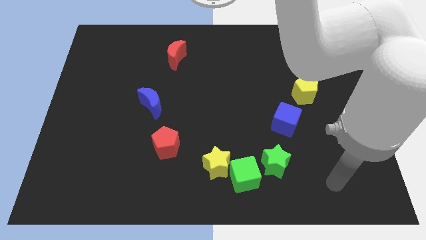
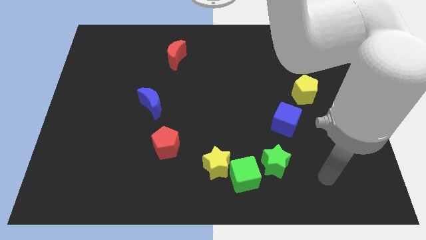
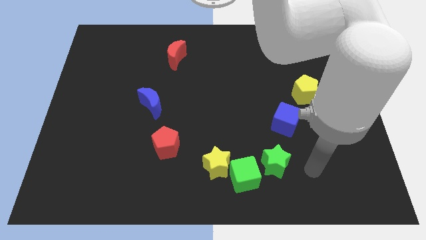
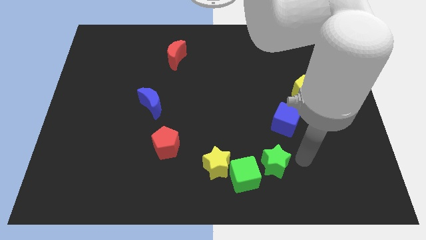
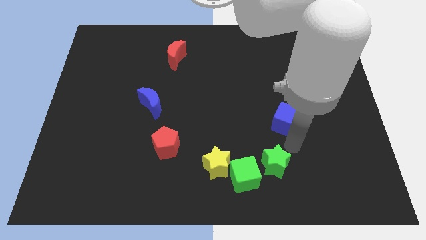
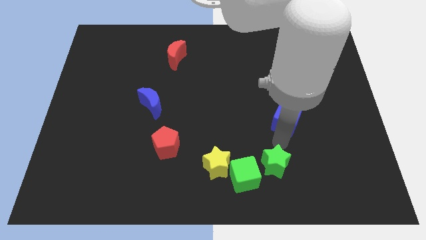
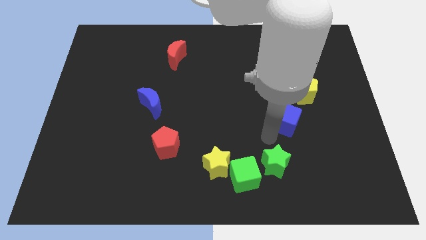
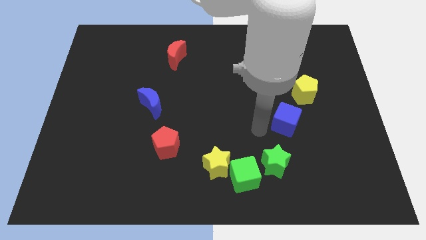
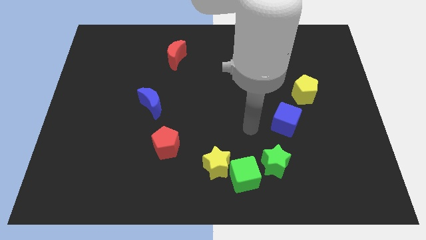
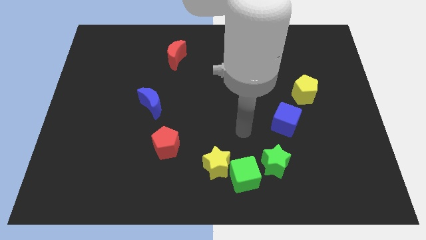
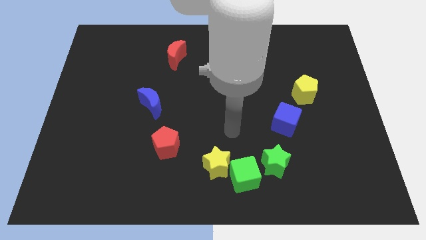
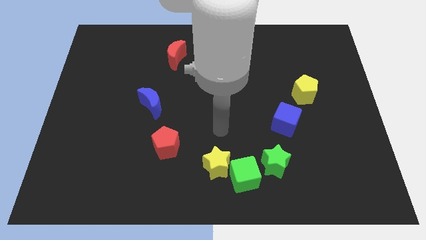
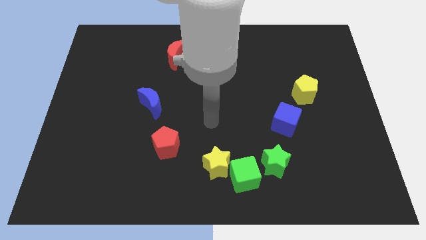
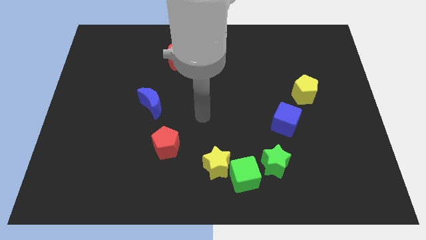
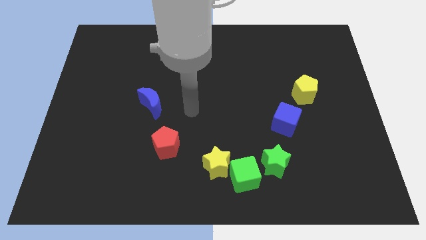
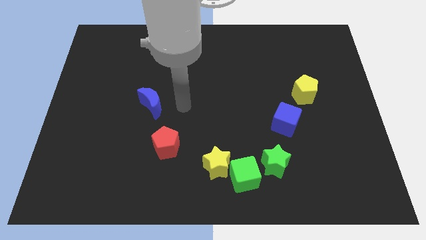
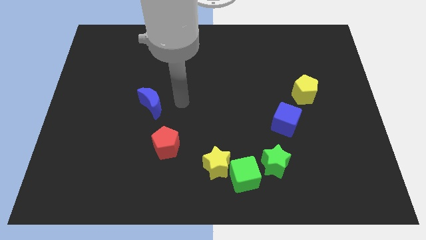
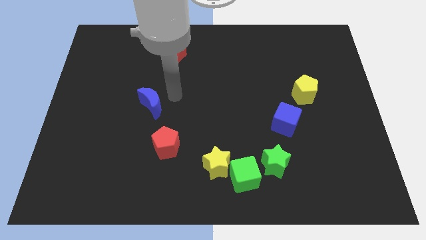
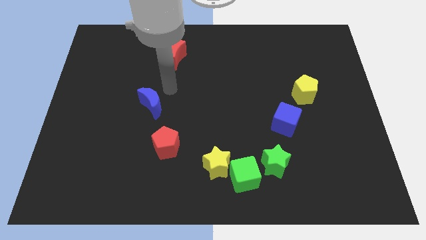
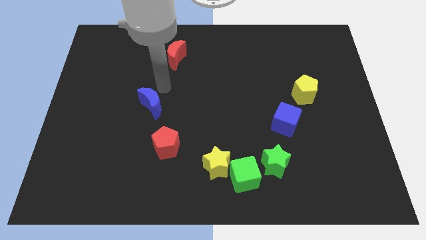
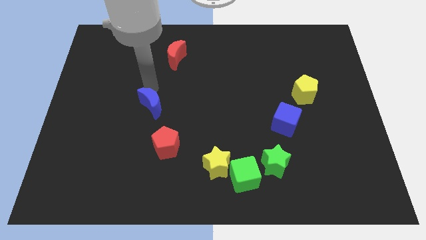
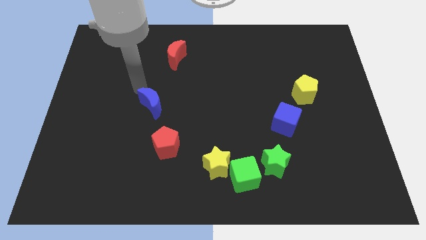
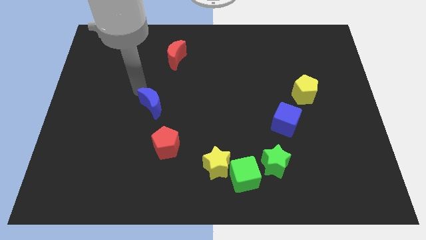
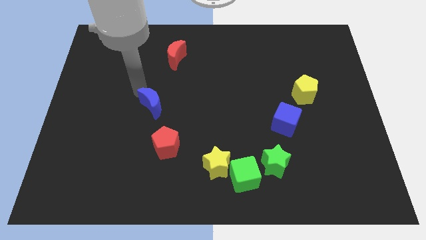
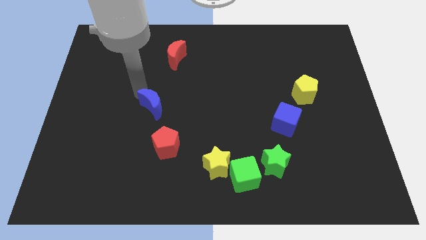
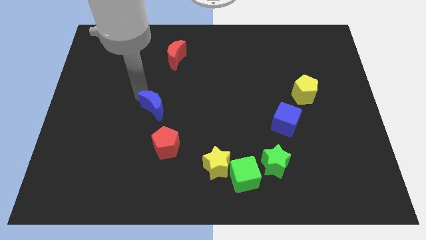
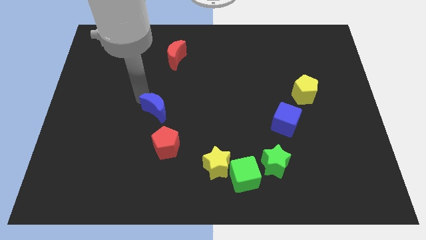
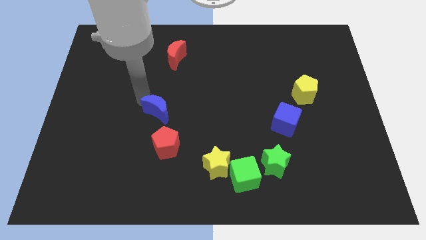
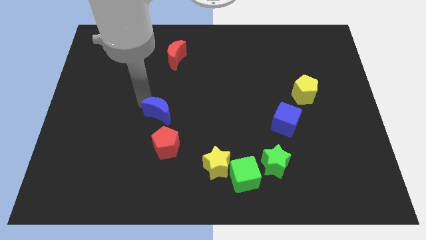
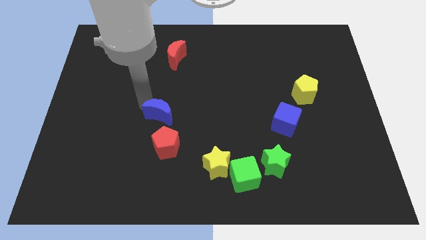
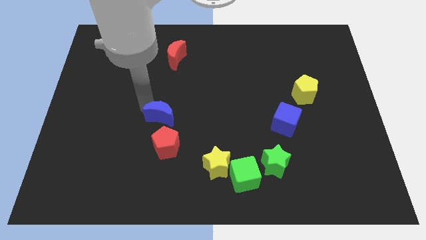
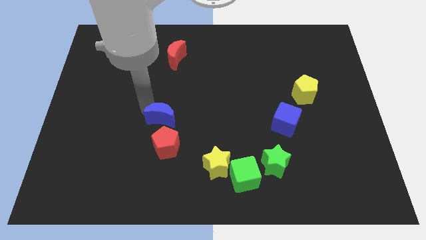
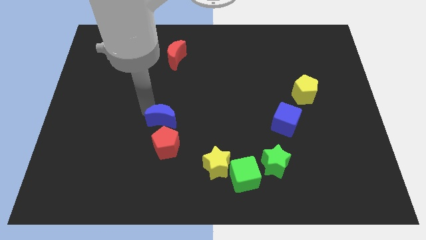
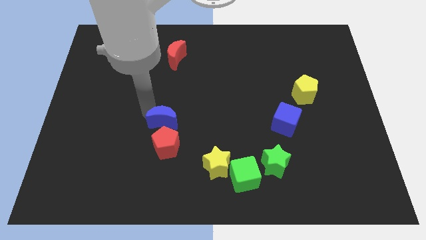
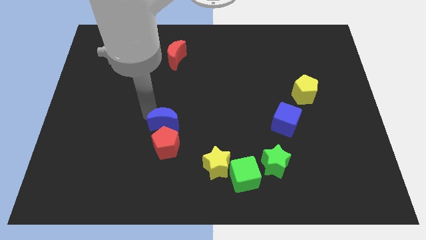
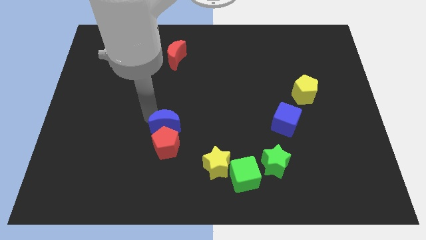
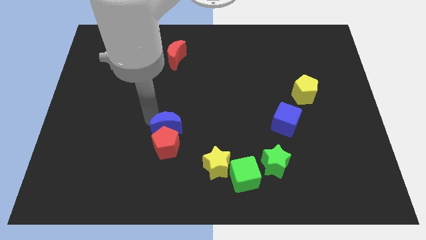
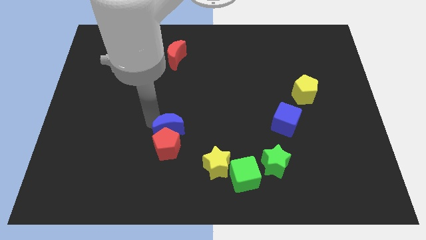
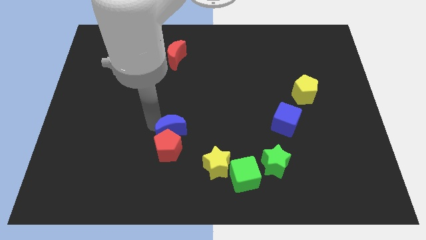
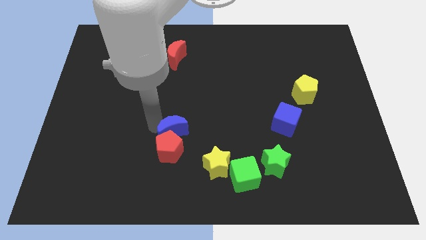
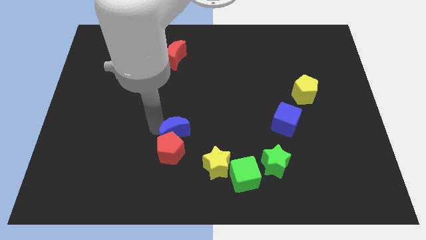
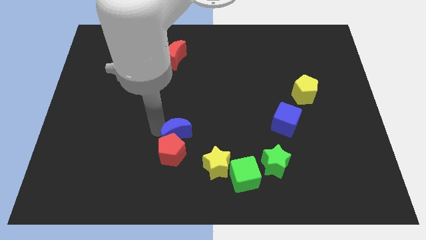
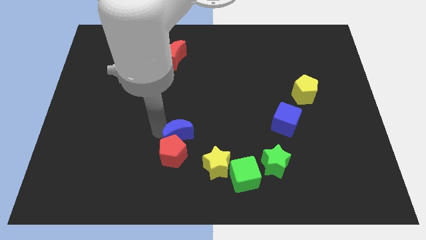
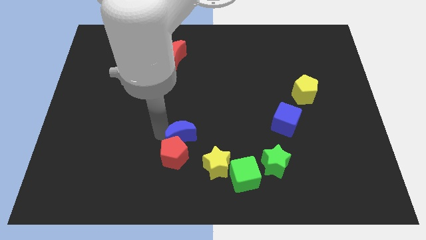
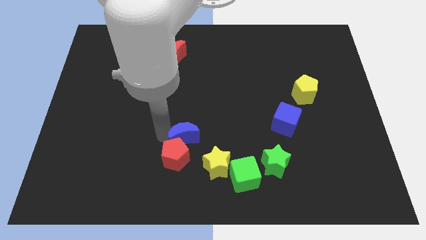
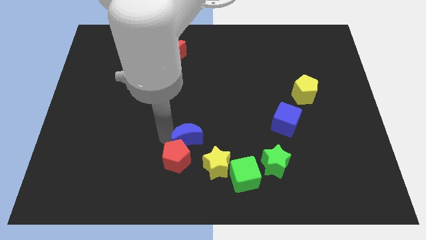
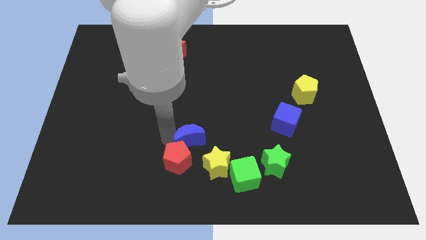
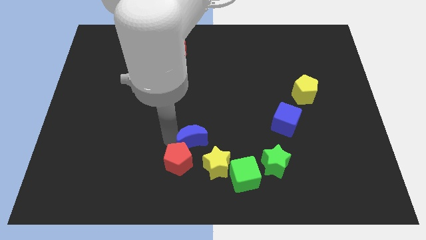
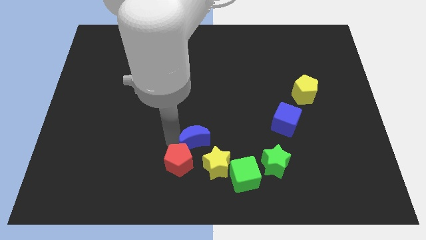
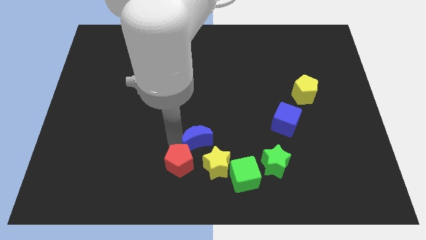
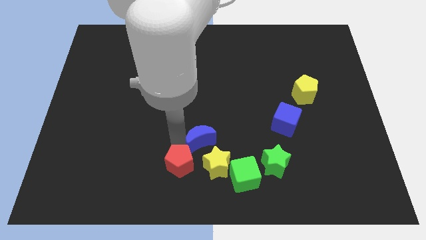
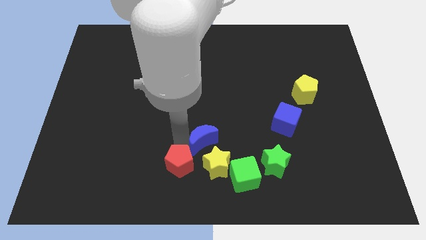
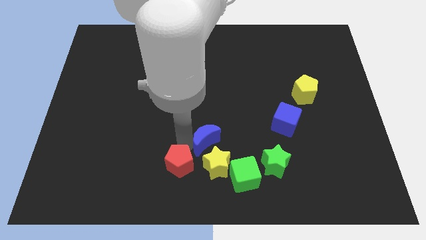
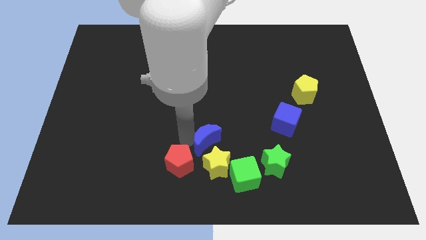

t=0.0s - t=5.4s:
put the blue moon to the yellow star
